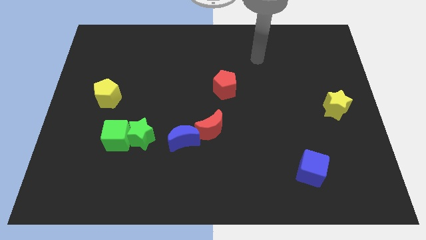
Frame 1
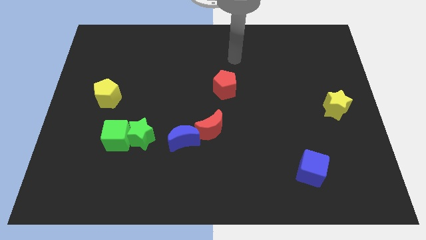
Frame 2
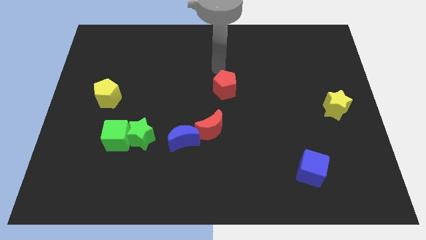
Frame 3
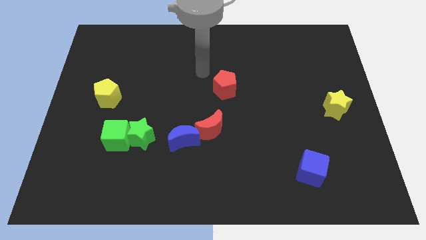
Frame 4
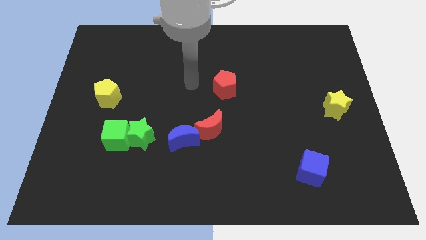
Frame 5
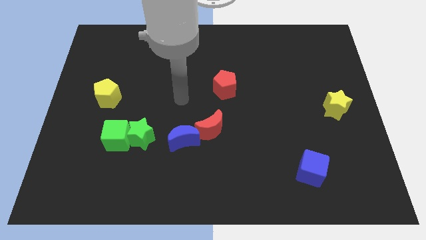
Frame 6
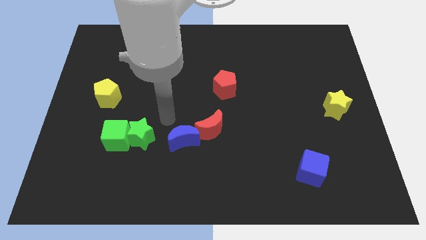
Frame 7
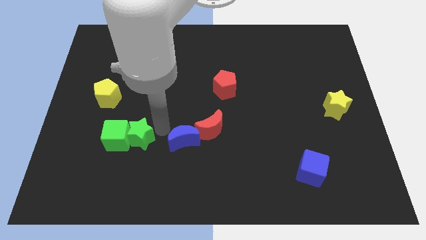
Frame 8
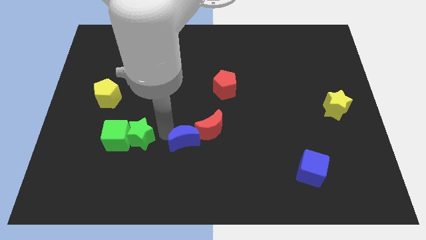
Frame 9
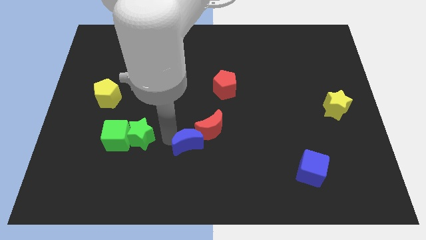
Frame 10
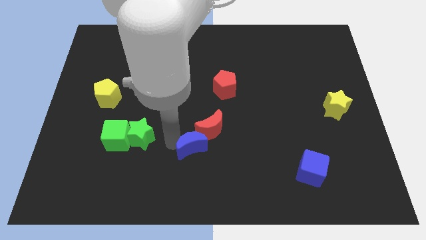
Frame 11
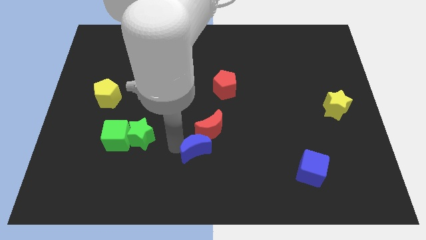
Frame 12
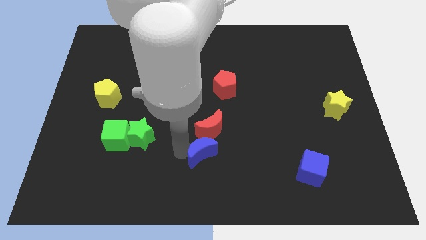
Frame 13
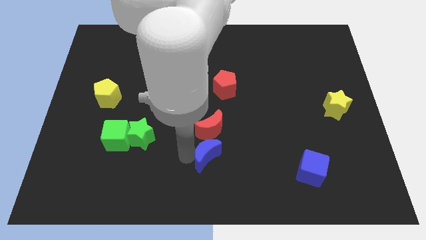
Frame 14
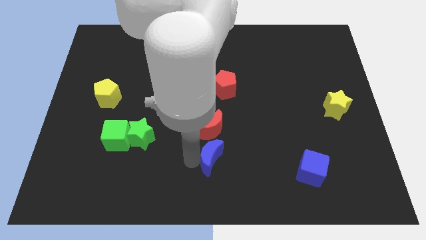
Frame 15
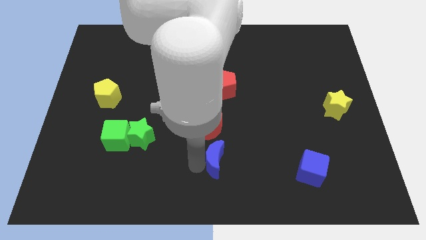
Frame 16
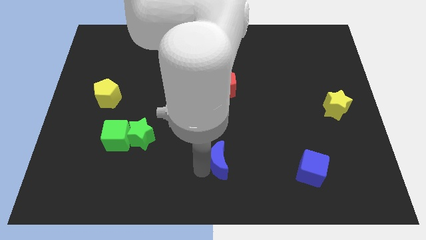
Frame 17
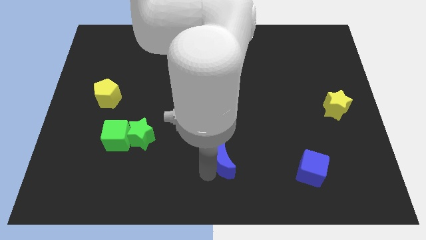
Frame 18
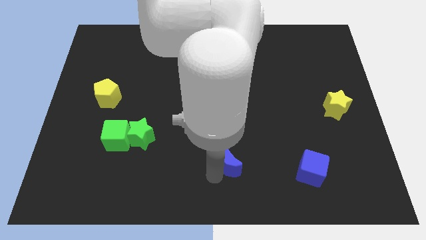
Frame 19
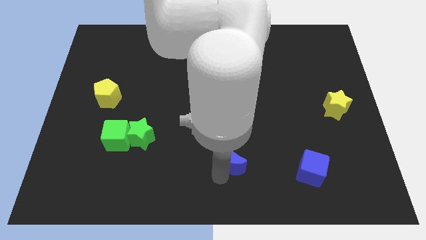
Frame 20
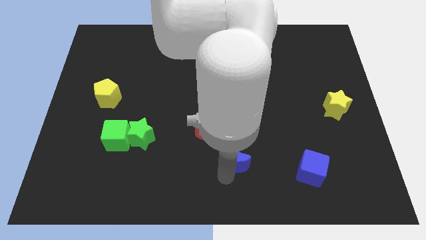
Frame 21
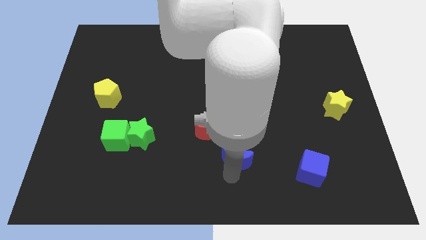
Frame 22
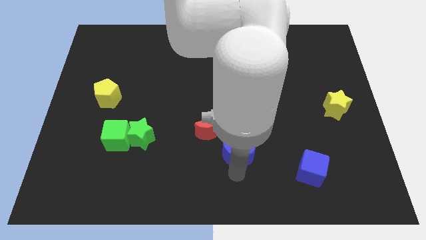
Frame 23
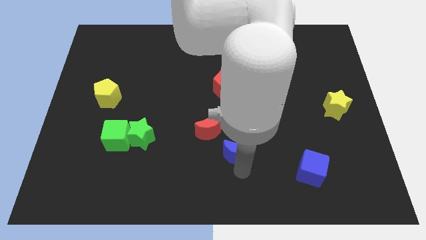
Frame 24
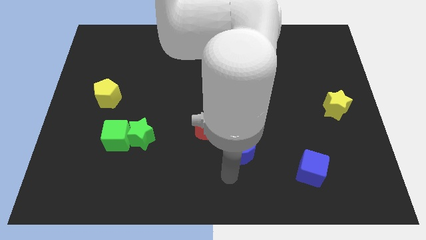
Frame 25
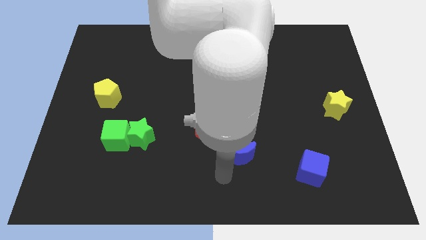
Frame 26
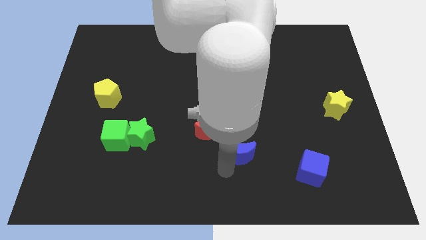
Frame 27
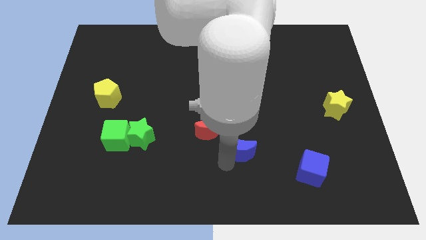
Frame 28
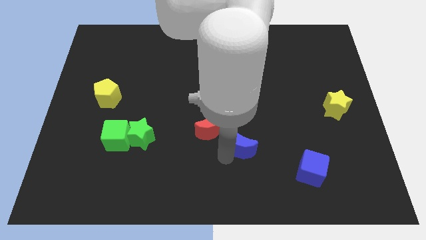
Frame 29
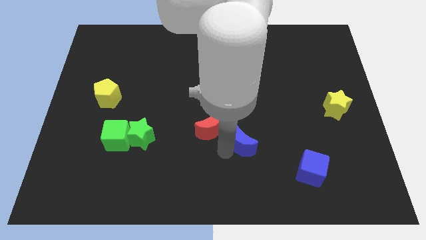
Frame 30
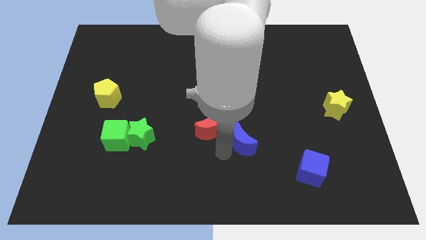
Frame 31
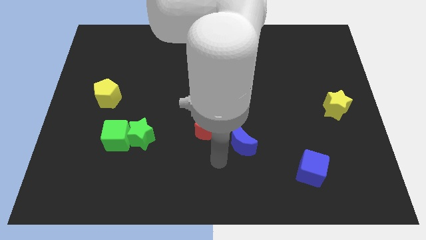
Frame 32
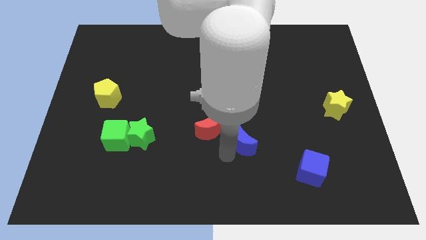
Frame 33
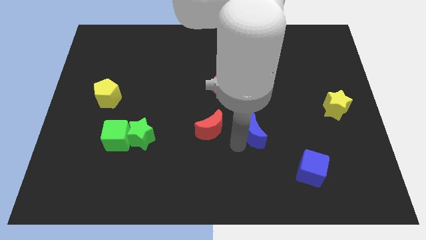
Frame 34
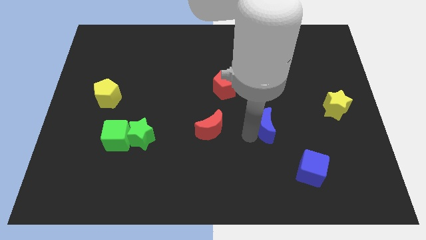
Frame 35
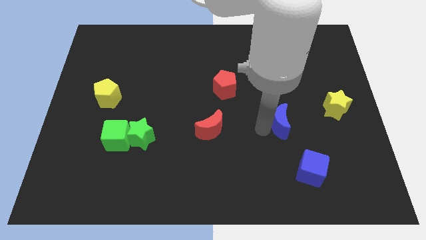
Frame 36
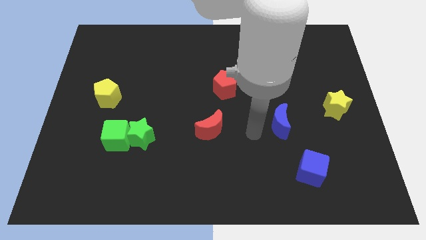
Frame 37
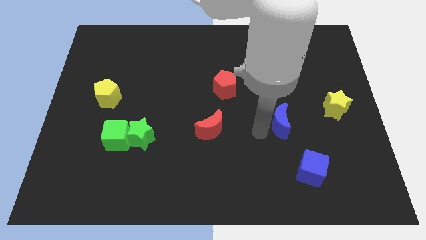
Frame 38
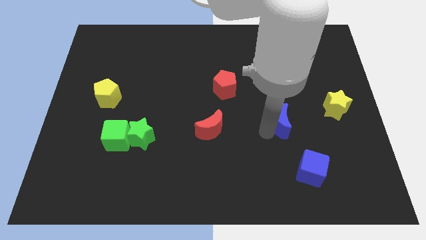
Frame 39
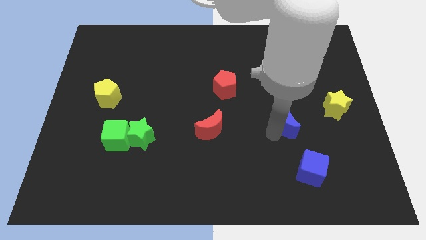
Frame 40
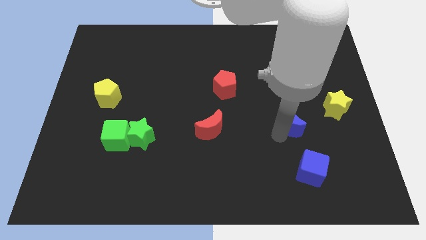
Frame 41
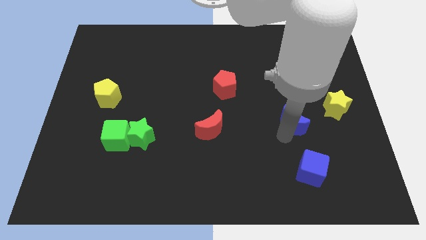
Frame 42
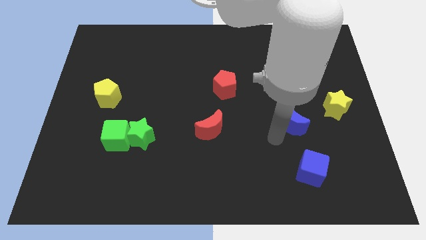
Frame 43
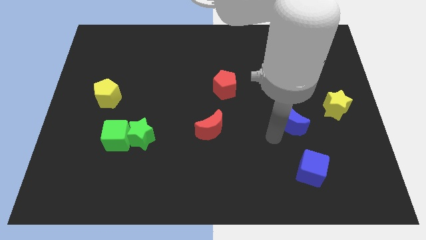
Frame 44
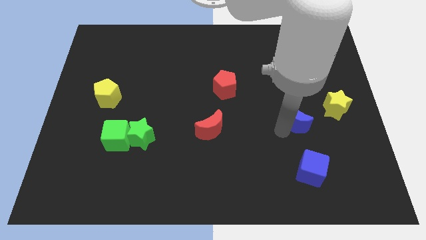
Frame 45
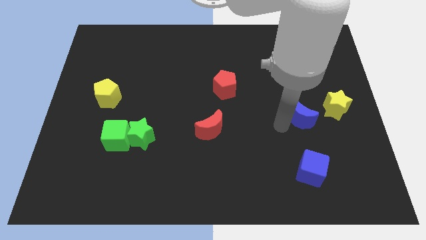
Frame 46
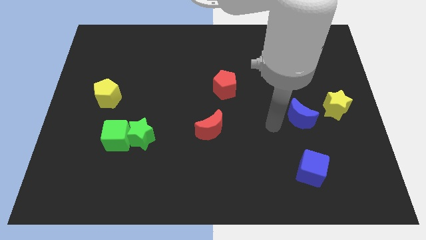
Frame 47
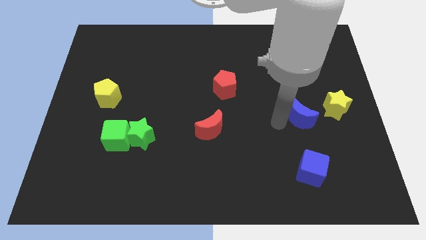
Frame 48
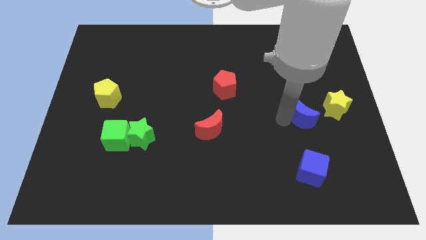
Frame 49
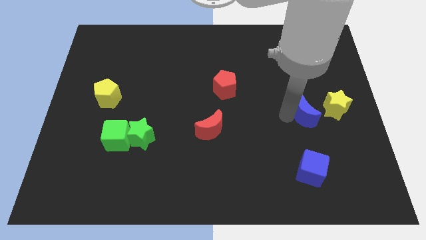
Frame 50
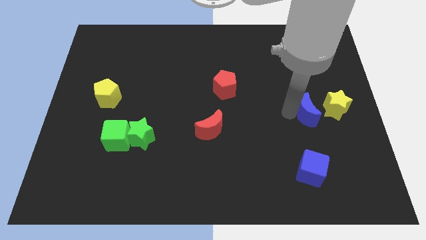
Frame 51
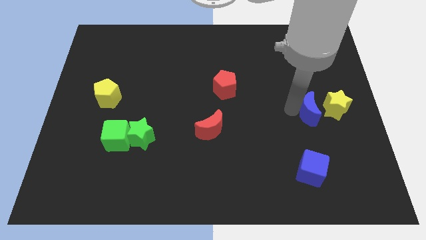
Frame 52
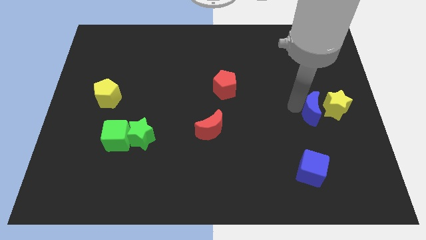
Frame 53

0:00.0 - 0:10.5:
slide the blue moon towards the yellow star

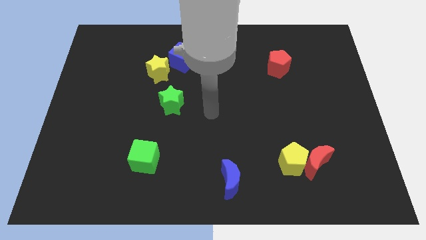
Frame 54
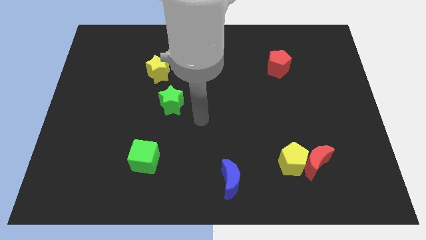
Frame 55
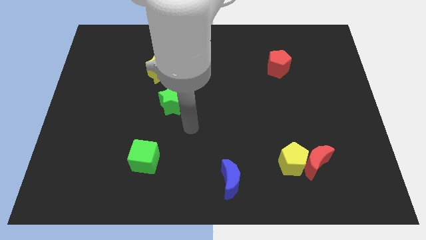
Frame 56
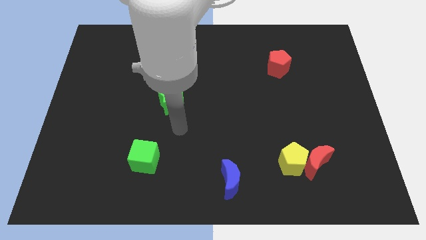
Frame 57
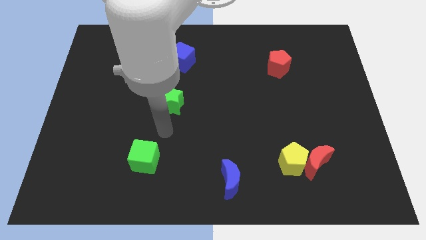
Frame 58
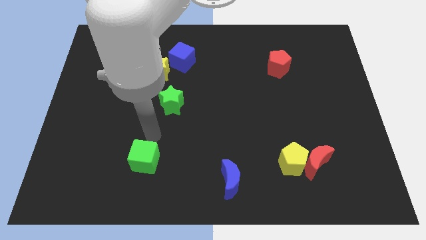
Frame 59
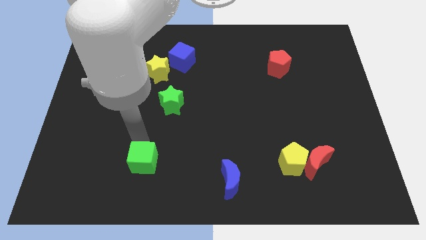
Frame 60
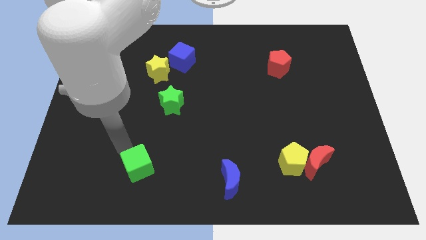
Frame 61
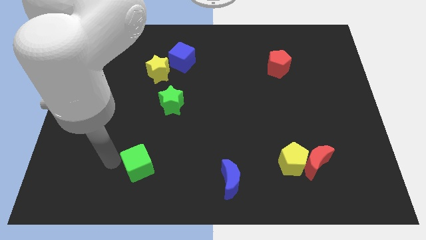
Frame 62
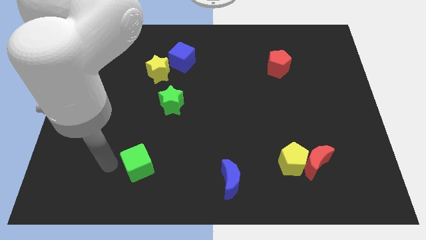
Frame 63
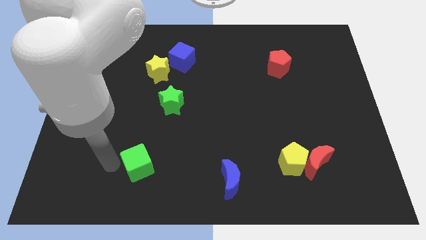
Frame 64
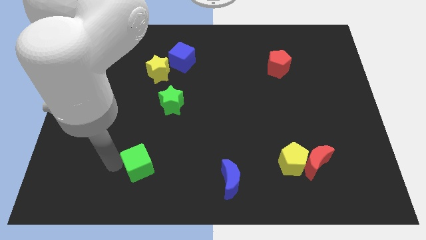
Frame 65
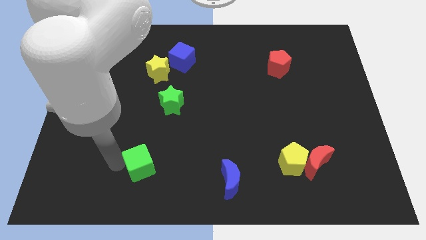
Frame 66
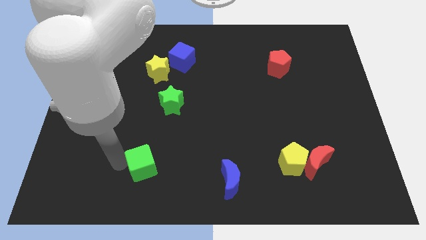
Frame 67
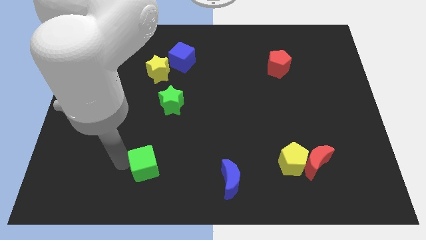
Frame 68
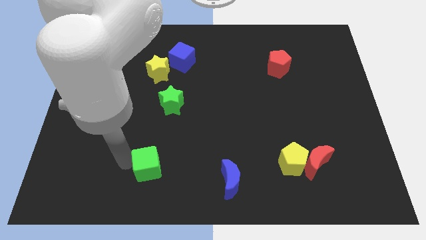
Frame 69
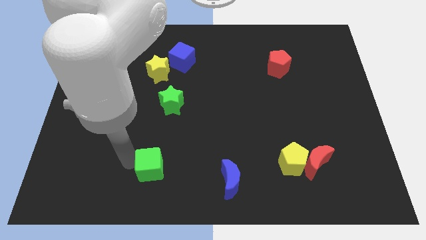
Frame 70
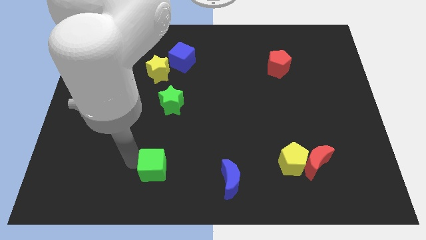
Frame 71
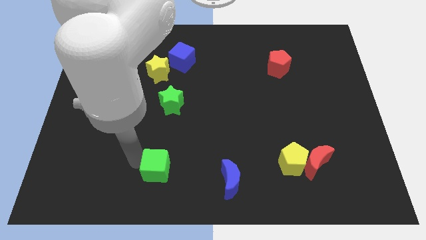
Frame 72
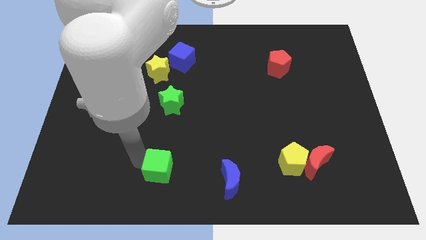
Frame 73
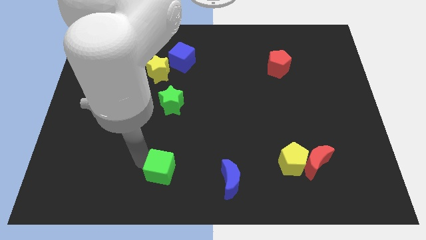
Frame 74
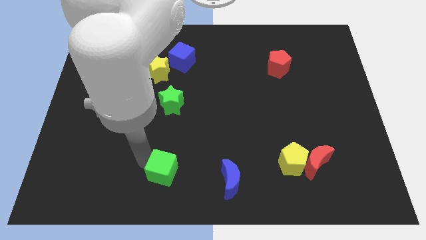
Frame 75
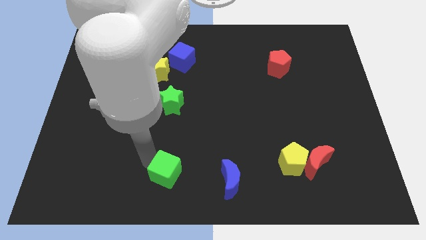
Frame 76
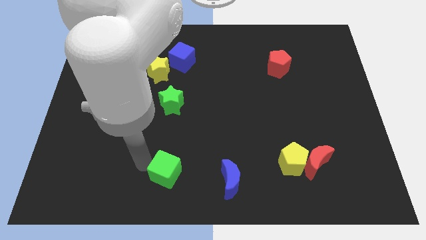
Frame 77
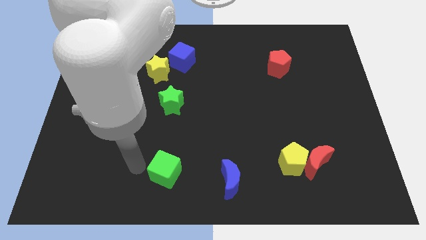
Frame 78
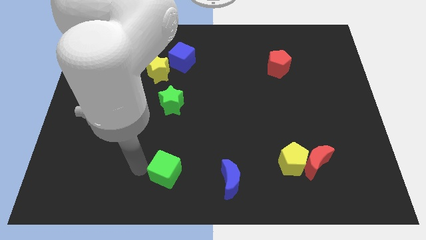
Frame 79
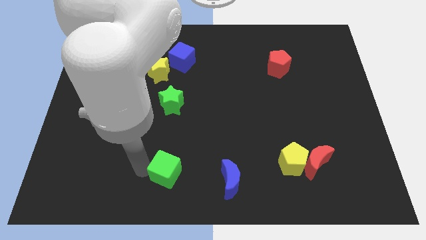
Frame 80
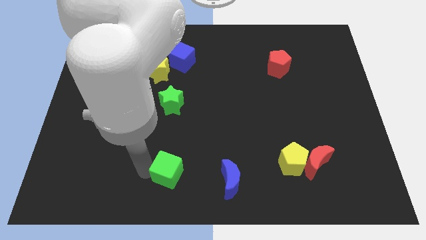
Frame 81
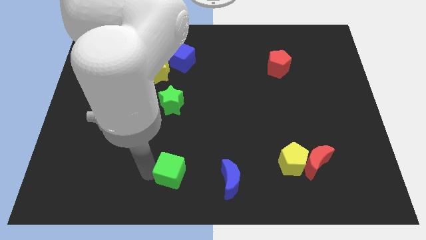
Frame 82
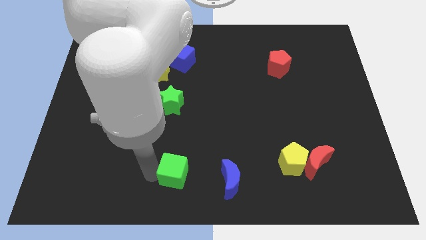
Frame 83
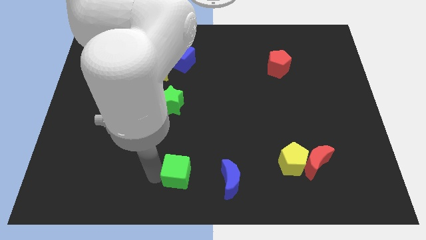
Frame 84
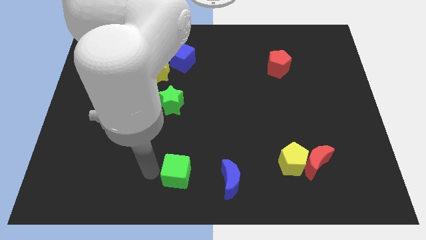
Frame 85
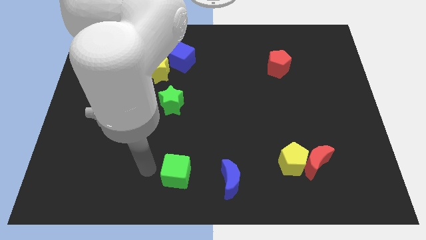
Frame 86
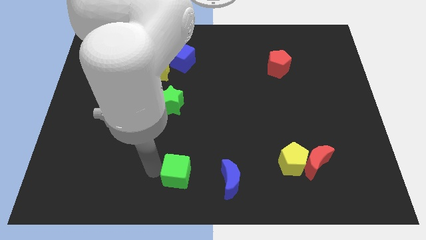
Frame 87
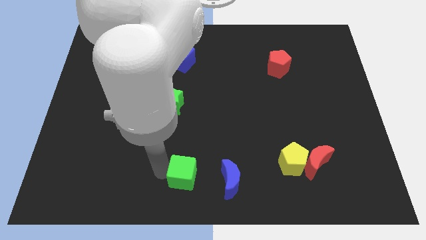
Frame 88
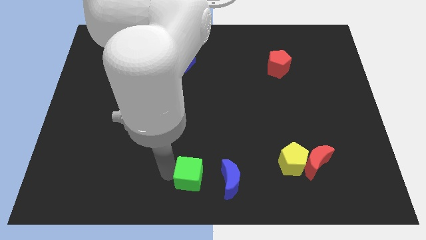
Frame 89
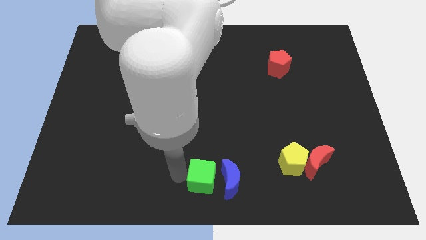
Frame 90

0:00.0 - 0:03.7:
push the green cube to the blue moon
